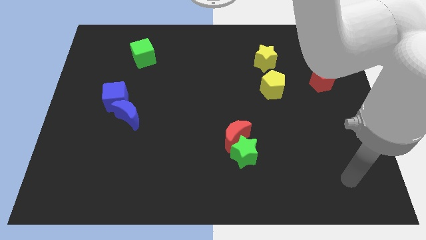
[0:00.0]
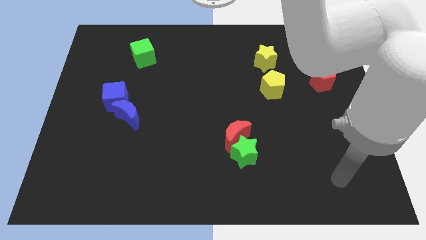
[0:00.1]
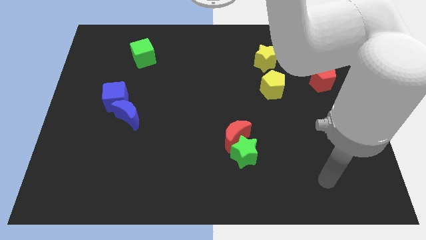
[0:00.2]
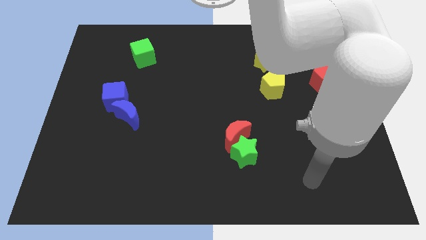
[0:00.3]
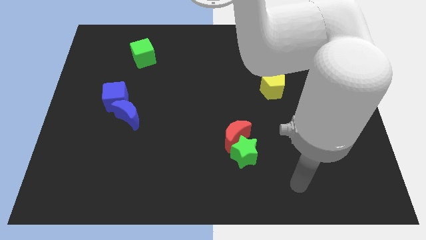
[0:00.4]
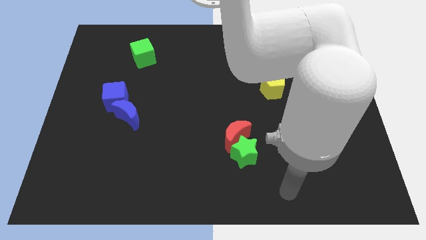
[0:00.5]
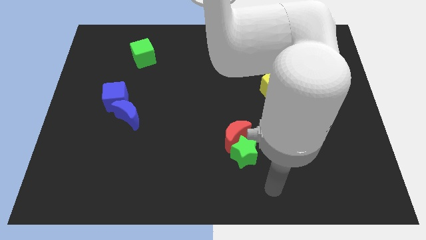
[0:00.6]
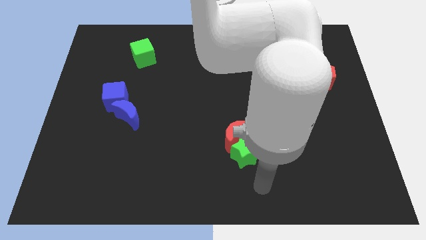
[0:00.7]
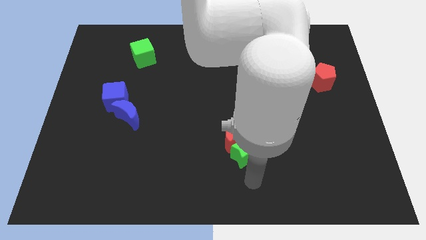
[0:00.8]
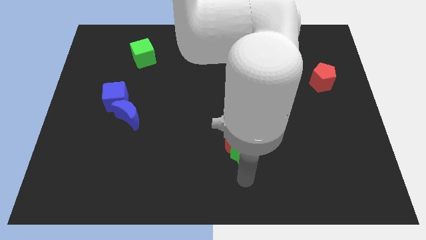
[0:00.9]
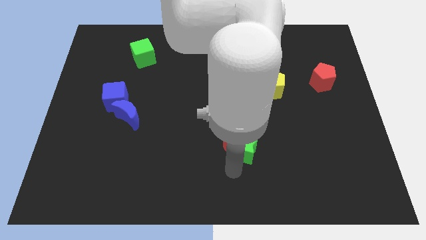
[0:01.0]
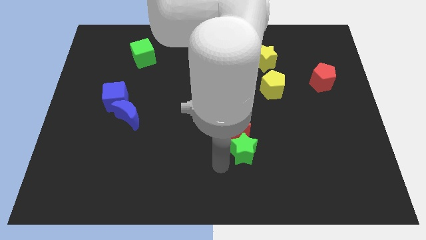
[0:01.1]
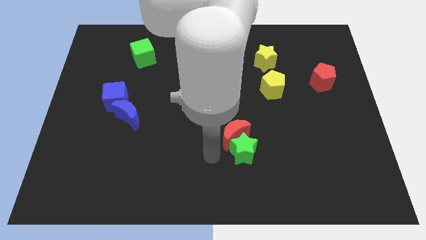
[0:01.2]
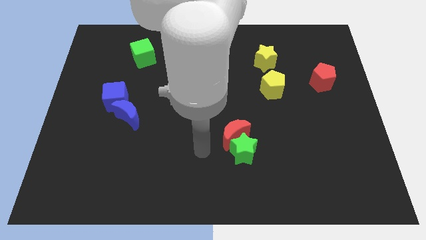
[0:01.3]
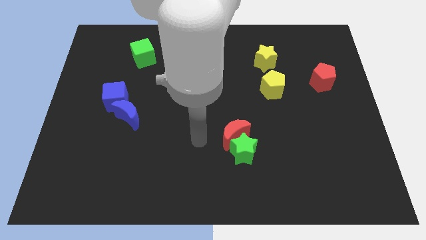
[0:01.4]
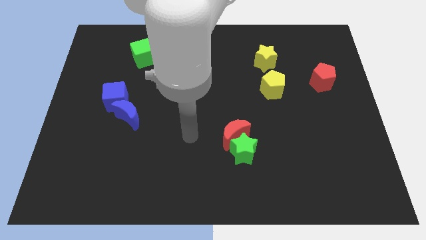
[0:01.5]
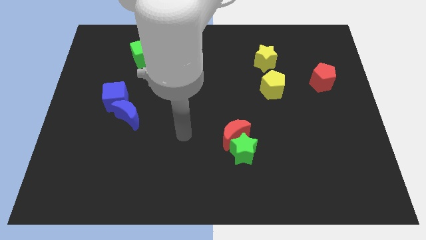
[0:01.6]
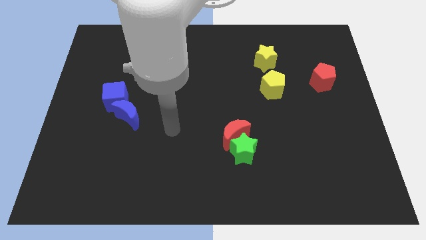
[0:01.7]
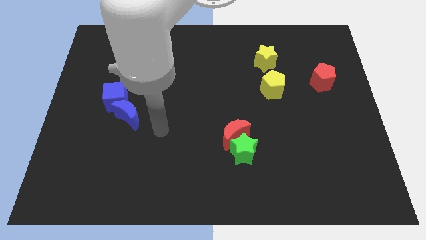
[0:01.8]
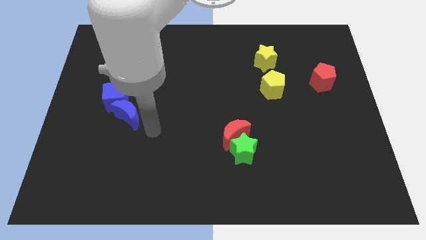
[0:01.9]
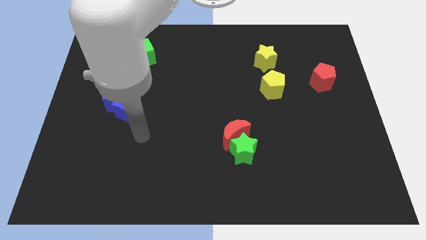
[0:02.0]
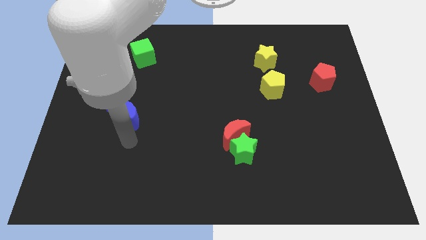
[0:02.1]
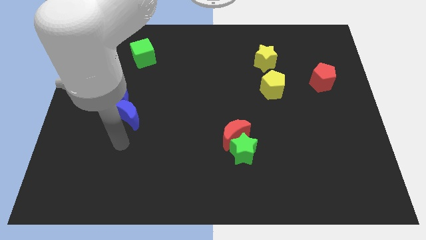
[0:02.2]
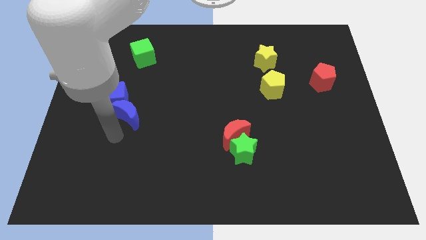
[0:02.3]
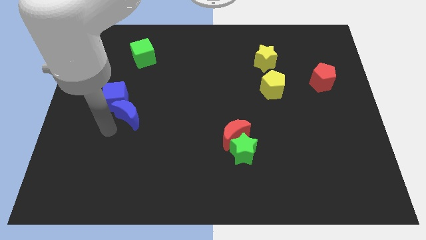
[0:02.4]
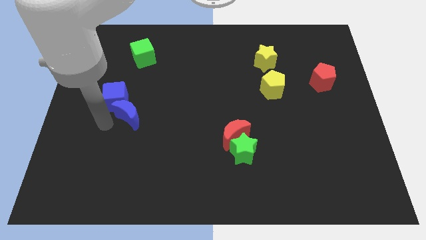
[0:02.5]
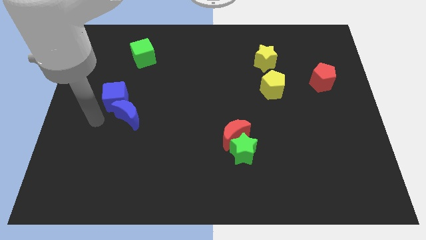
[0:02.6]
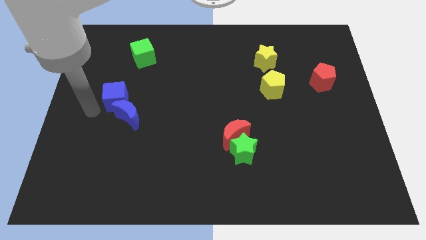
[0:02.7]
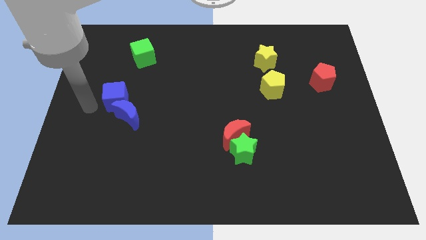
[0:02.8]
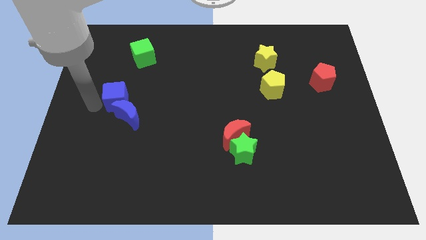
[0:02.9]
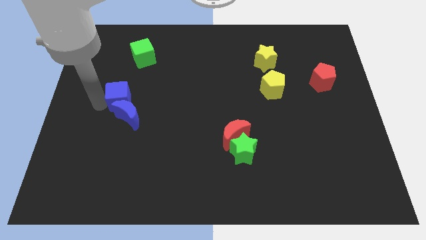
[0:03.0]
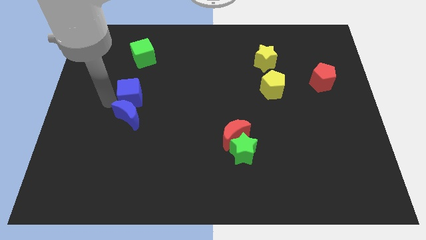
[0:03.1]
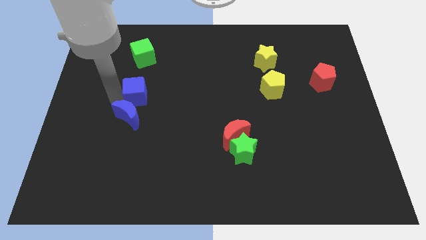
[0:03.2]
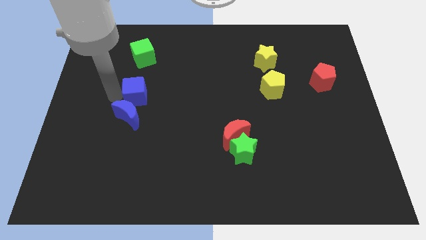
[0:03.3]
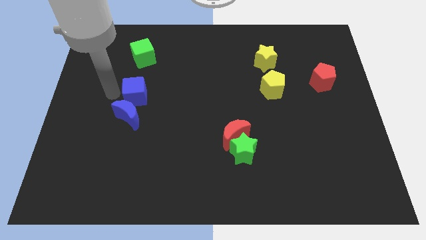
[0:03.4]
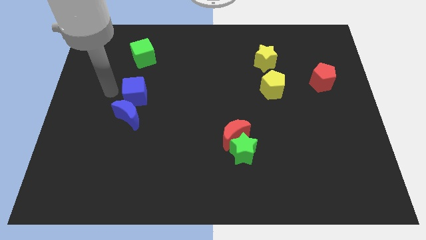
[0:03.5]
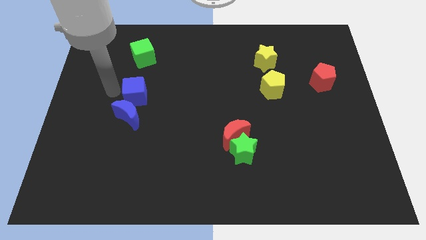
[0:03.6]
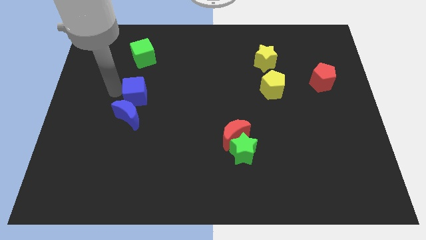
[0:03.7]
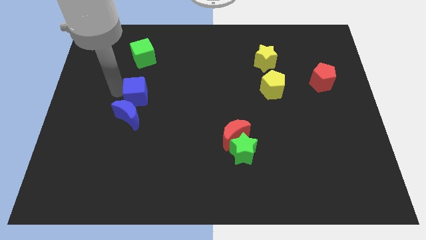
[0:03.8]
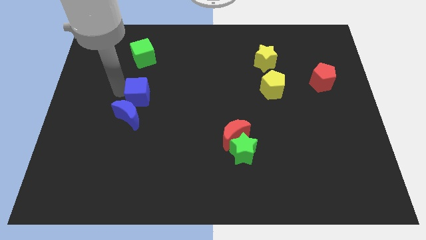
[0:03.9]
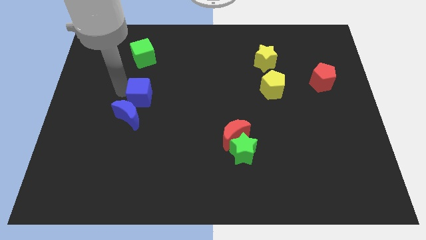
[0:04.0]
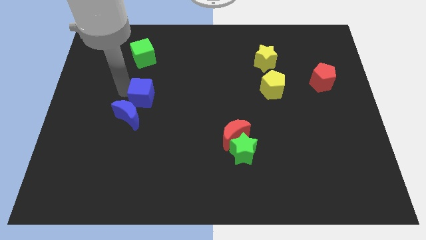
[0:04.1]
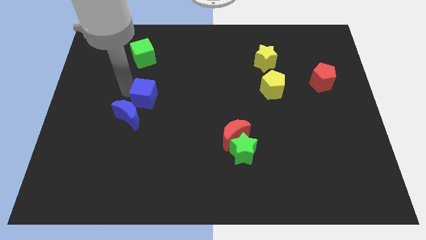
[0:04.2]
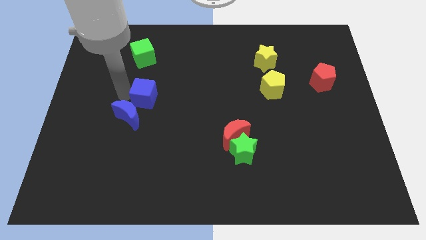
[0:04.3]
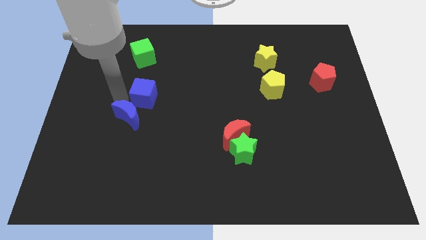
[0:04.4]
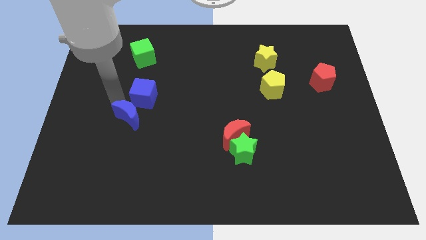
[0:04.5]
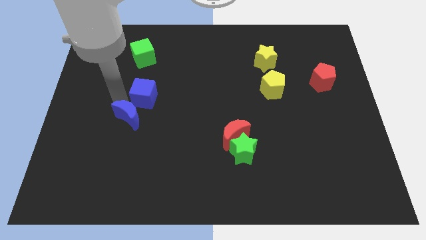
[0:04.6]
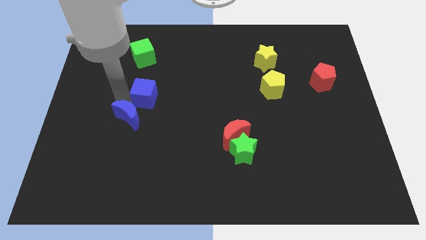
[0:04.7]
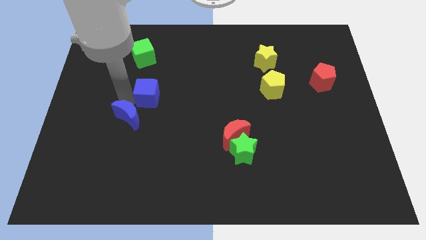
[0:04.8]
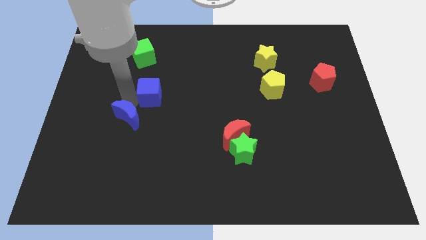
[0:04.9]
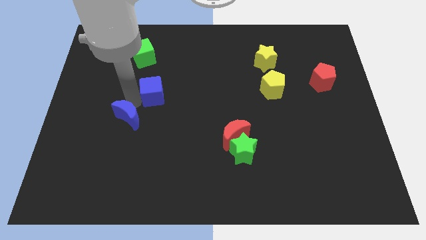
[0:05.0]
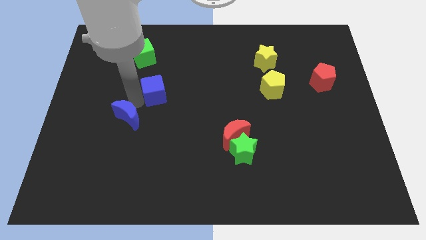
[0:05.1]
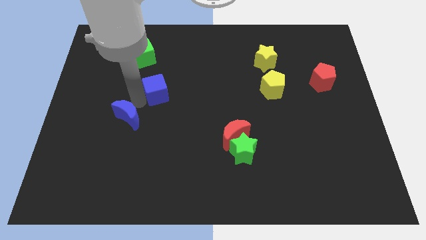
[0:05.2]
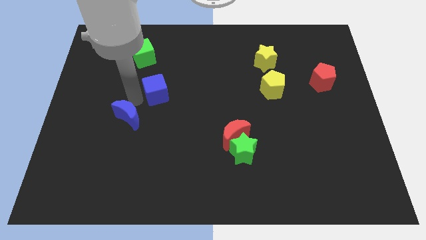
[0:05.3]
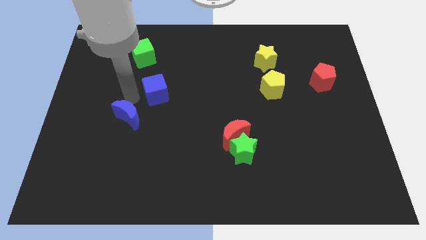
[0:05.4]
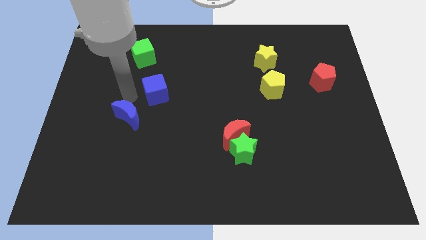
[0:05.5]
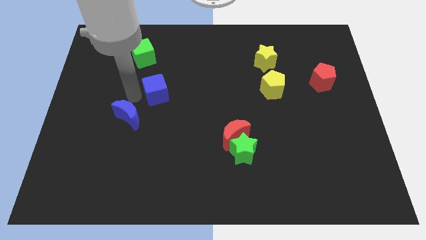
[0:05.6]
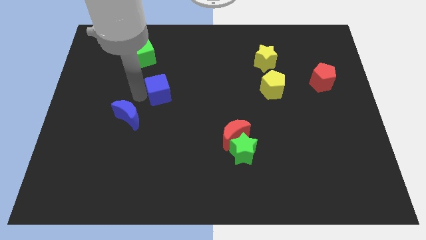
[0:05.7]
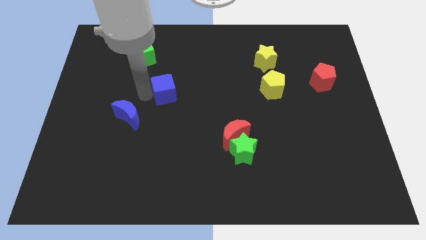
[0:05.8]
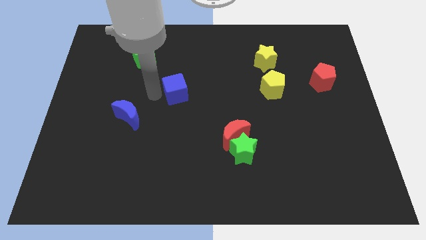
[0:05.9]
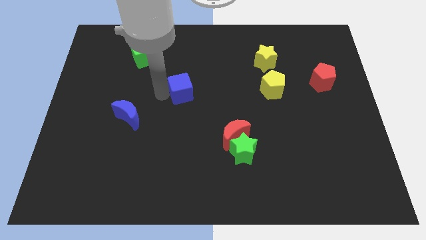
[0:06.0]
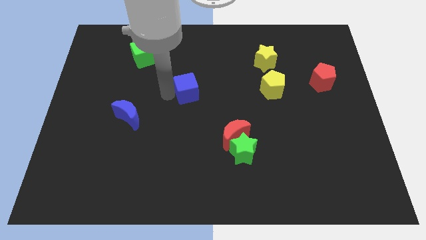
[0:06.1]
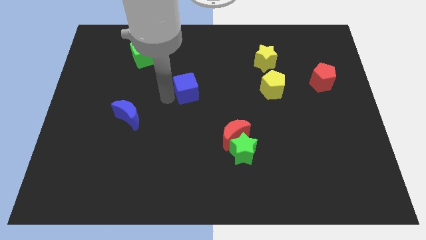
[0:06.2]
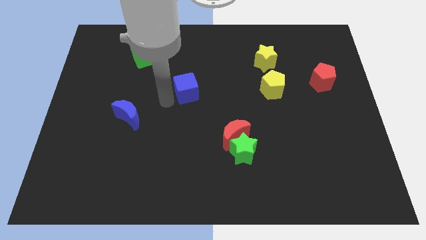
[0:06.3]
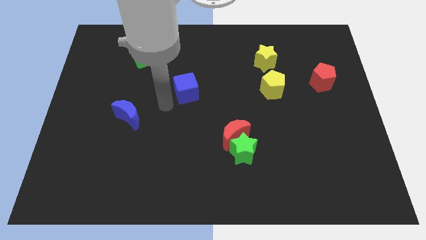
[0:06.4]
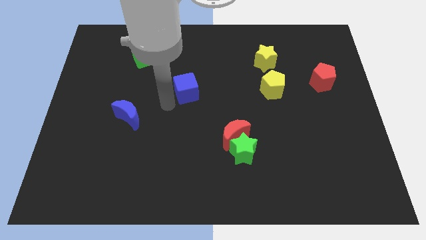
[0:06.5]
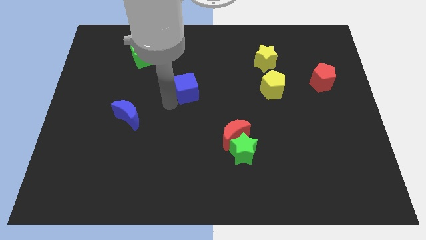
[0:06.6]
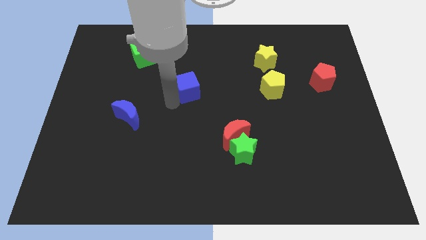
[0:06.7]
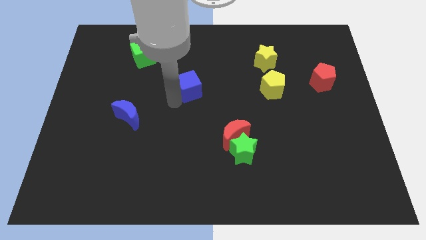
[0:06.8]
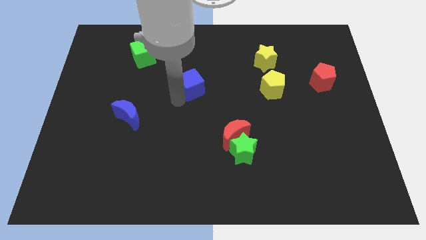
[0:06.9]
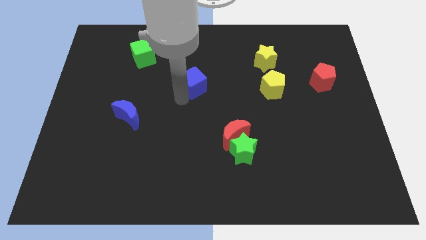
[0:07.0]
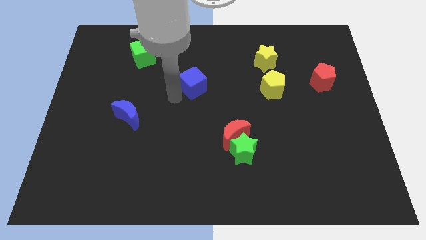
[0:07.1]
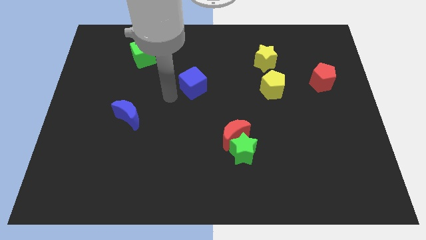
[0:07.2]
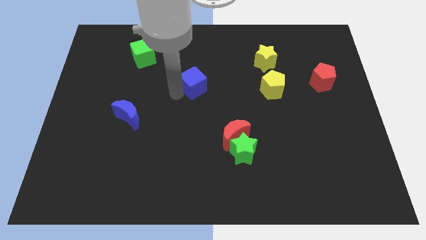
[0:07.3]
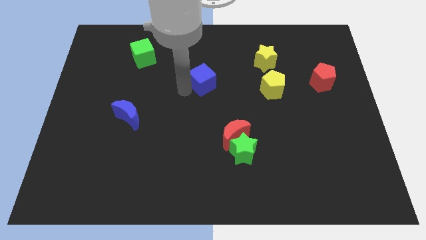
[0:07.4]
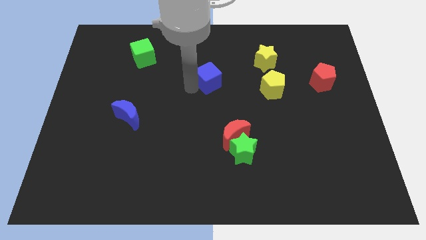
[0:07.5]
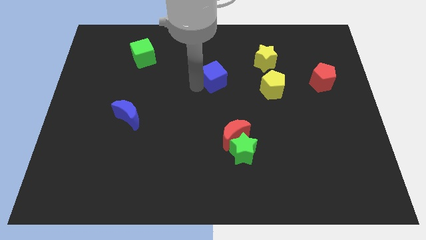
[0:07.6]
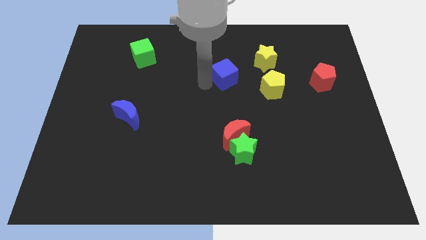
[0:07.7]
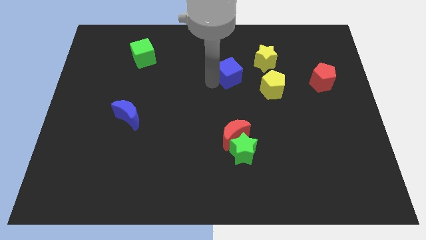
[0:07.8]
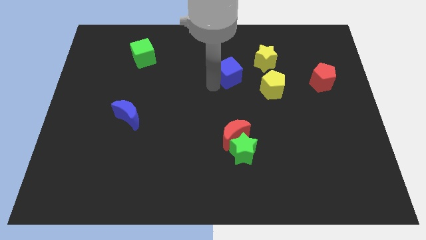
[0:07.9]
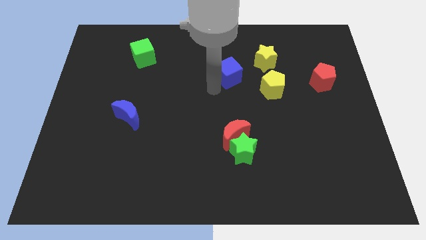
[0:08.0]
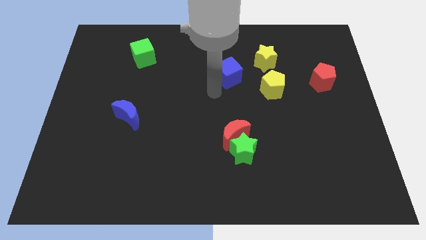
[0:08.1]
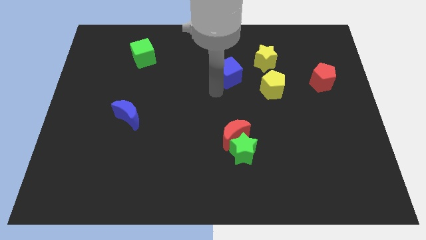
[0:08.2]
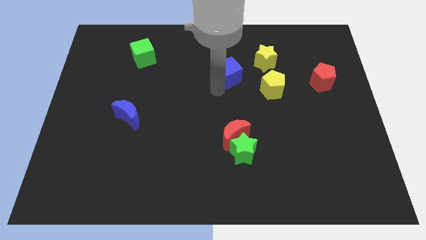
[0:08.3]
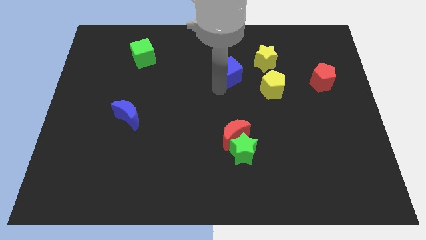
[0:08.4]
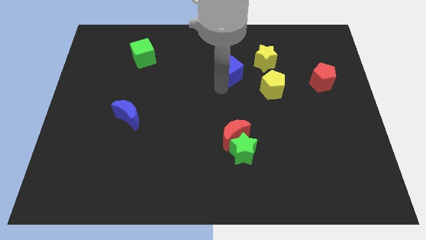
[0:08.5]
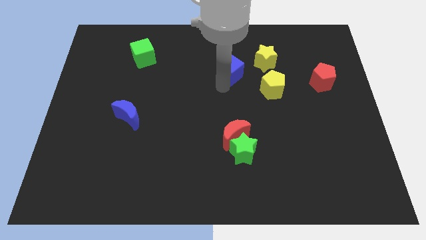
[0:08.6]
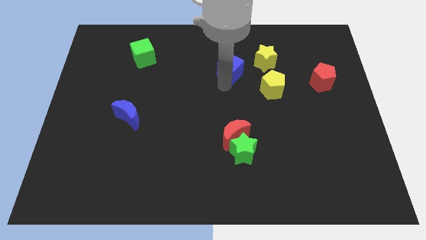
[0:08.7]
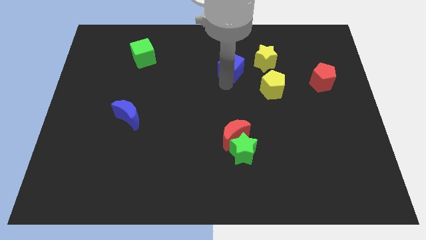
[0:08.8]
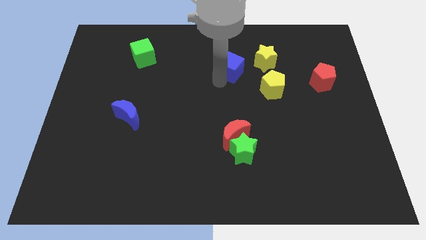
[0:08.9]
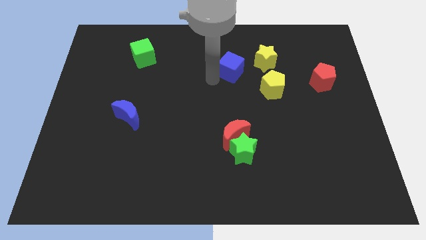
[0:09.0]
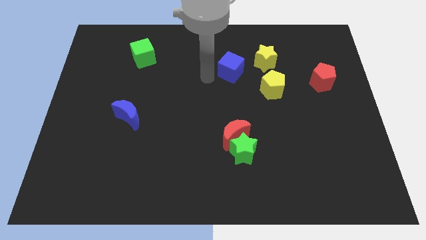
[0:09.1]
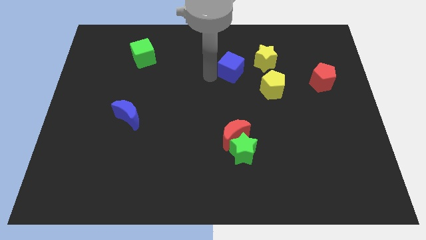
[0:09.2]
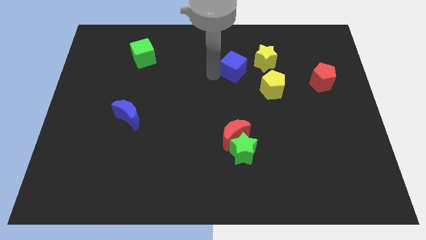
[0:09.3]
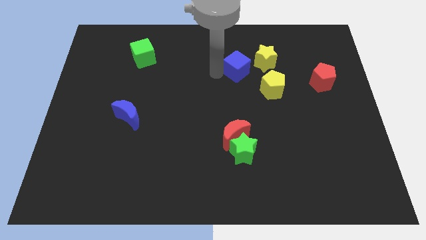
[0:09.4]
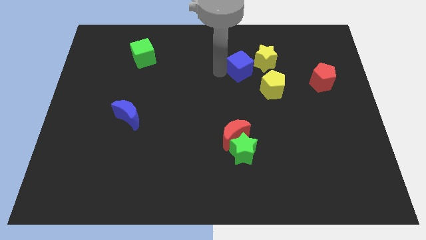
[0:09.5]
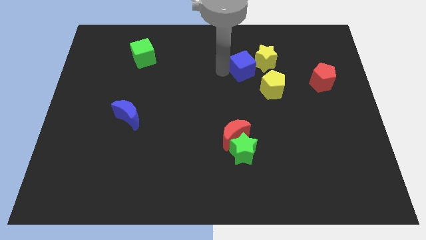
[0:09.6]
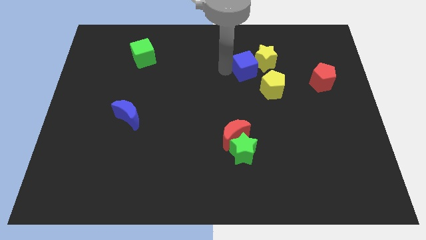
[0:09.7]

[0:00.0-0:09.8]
move the blue cube next to the yellow star
